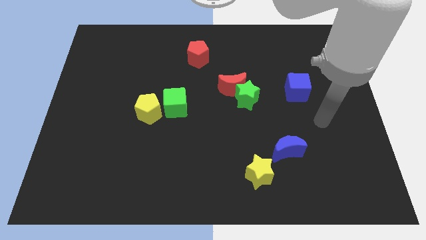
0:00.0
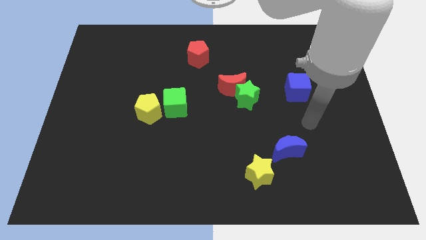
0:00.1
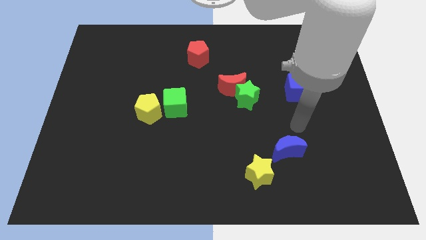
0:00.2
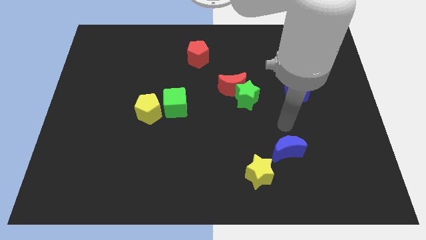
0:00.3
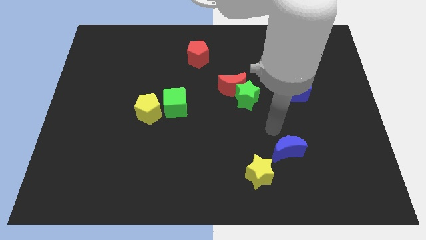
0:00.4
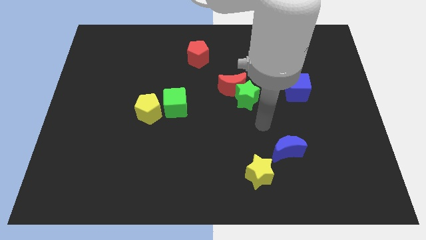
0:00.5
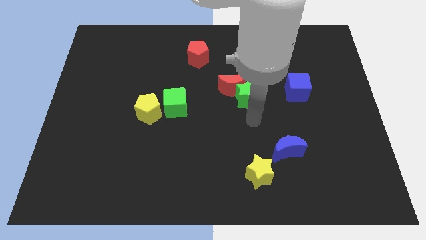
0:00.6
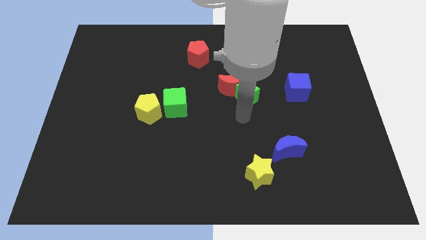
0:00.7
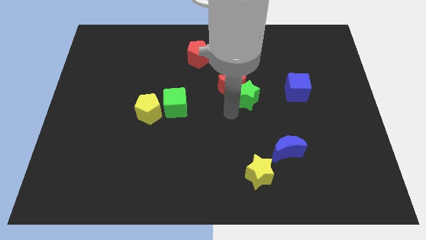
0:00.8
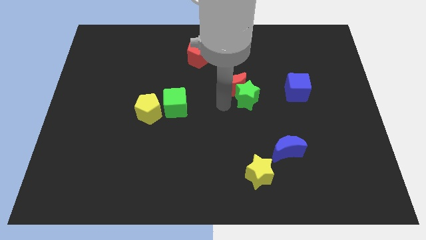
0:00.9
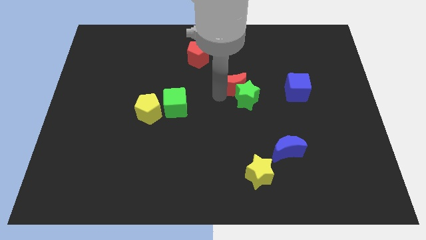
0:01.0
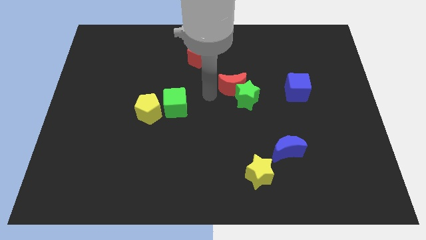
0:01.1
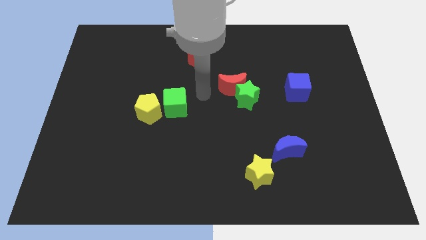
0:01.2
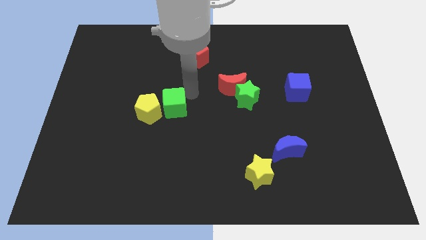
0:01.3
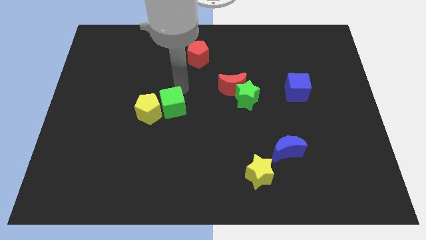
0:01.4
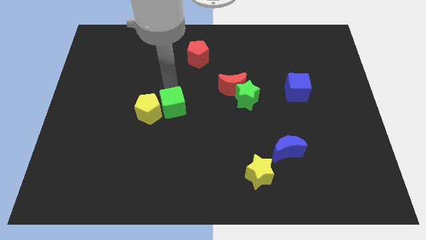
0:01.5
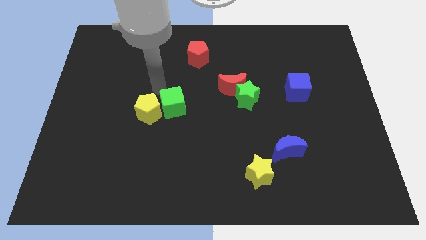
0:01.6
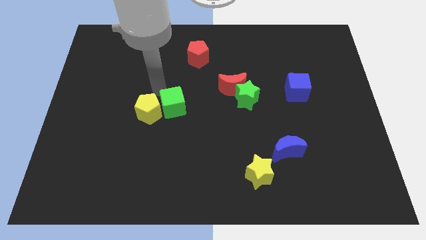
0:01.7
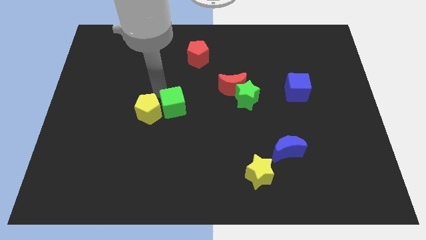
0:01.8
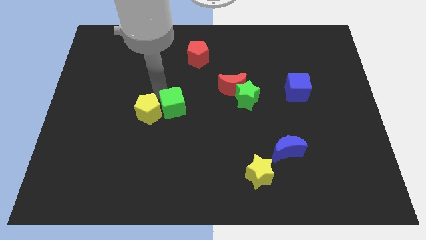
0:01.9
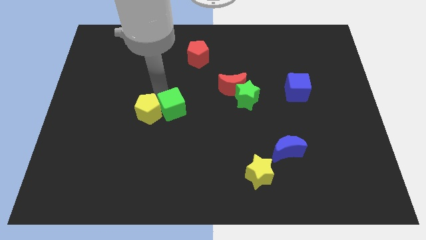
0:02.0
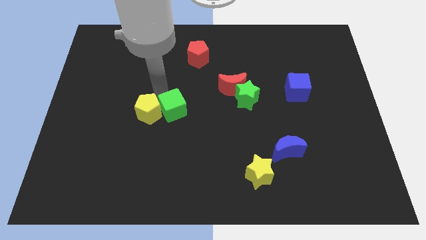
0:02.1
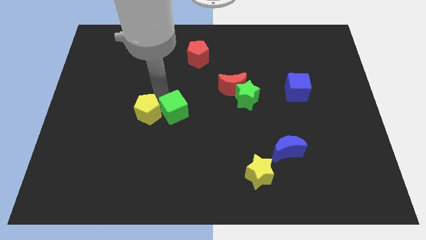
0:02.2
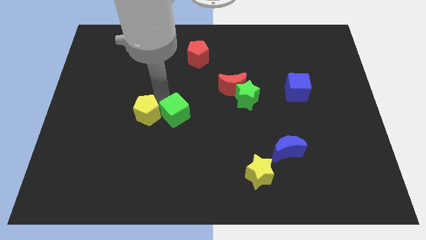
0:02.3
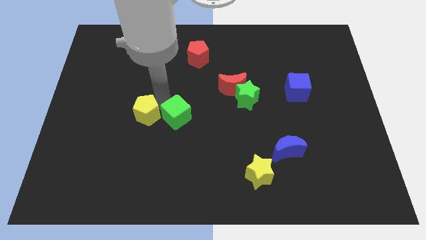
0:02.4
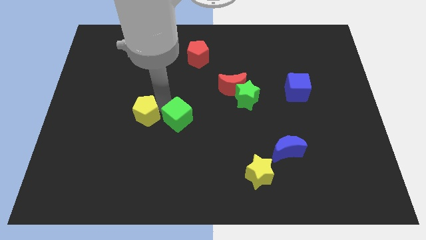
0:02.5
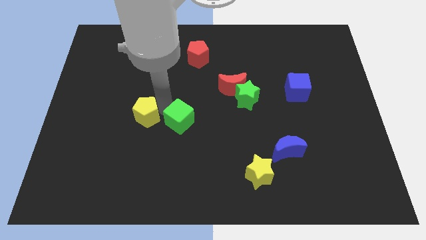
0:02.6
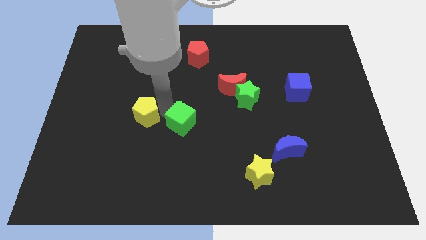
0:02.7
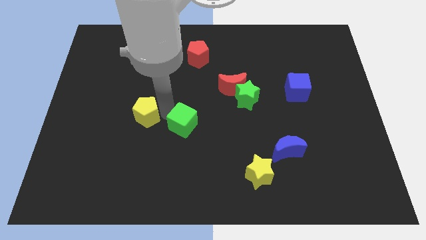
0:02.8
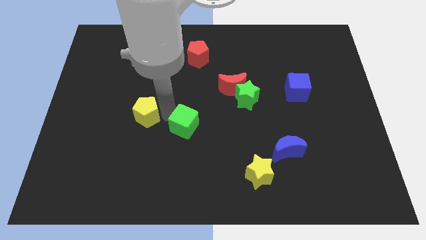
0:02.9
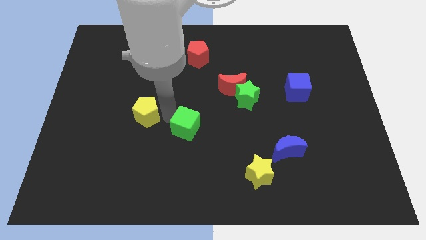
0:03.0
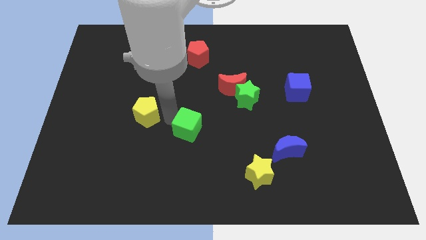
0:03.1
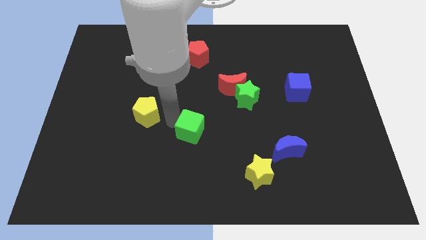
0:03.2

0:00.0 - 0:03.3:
push the green cube diagonally downwards and right a bit

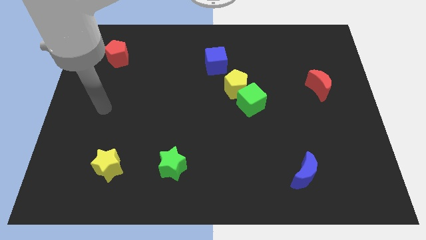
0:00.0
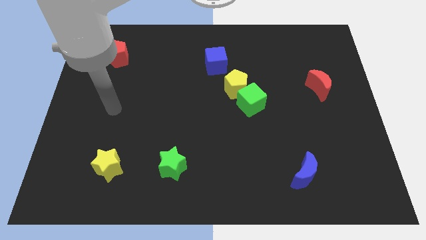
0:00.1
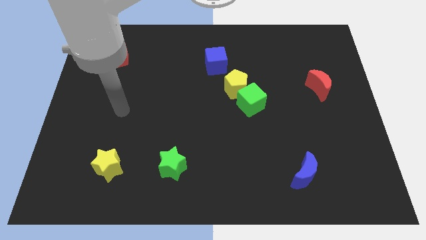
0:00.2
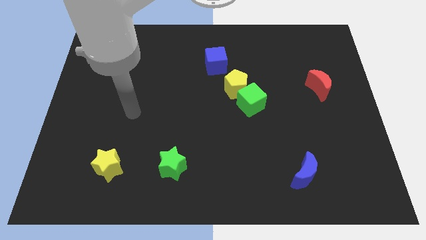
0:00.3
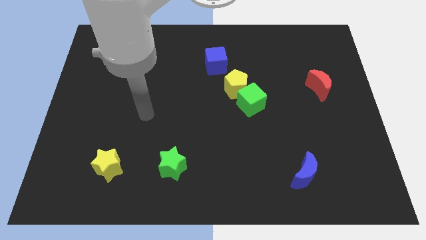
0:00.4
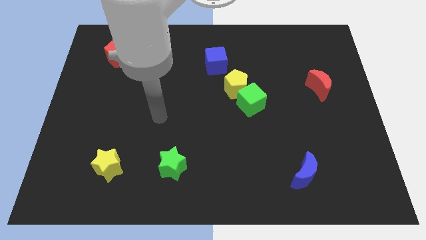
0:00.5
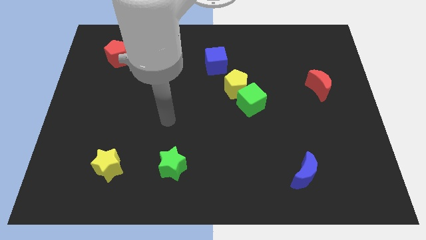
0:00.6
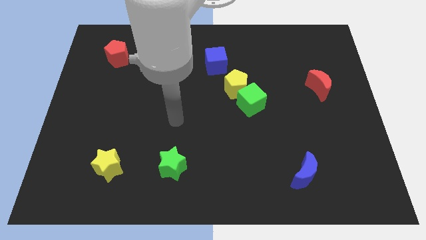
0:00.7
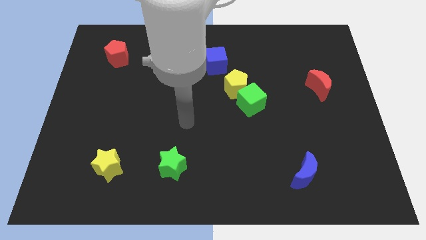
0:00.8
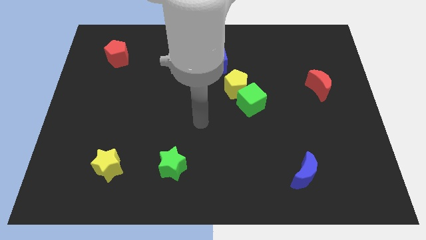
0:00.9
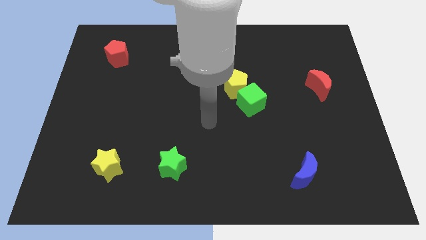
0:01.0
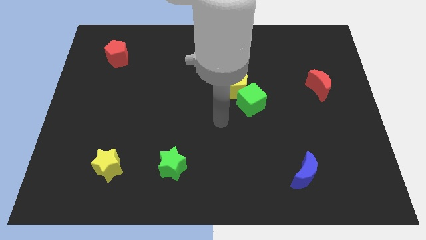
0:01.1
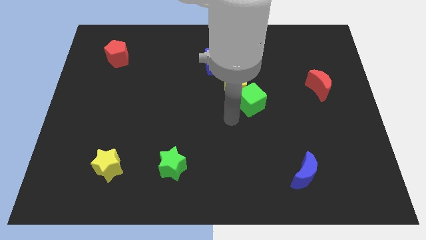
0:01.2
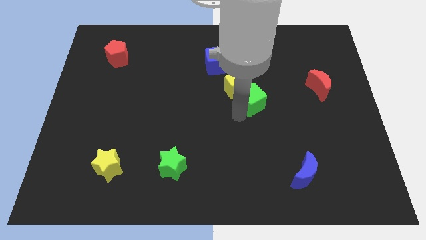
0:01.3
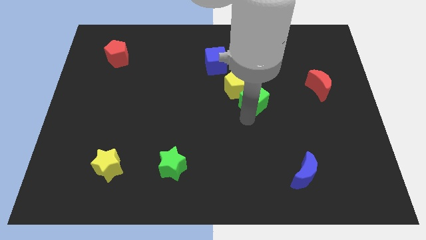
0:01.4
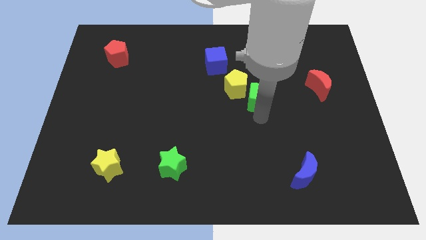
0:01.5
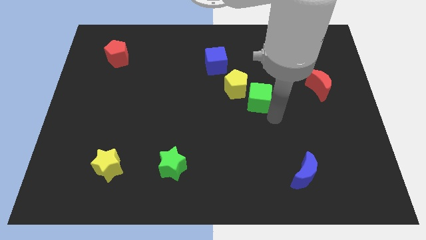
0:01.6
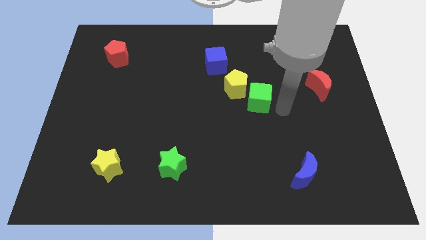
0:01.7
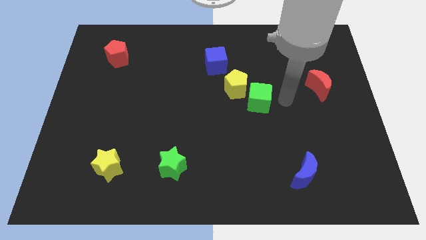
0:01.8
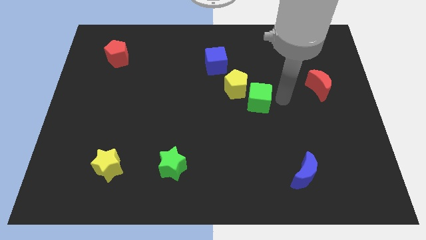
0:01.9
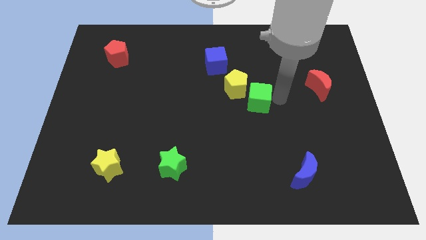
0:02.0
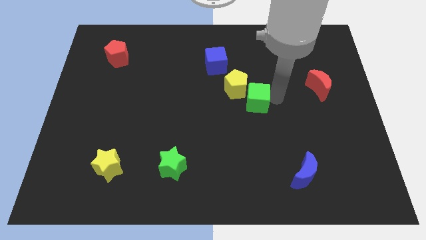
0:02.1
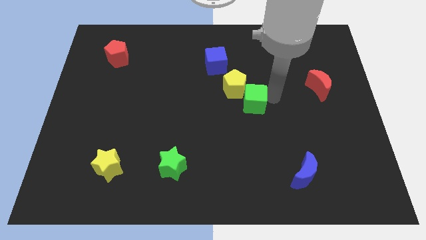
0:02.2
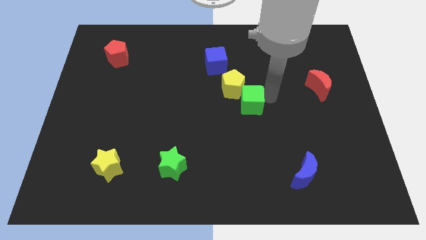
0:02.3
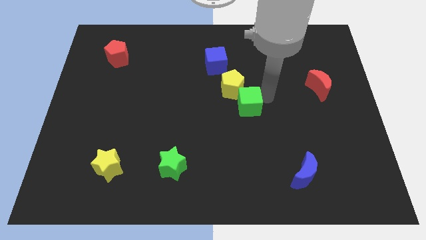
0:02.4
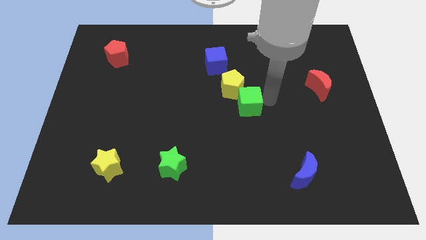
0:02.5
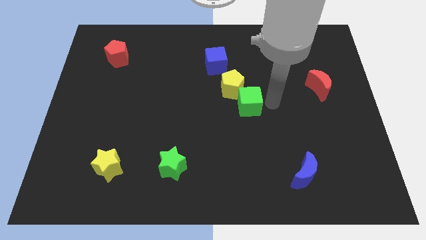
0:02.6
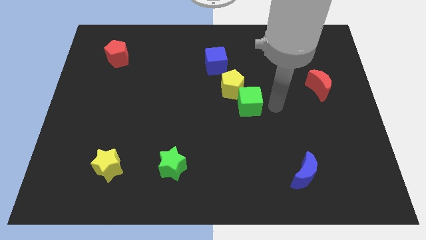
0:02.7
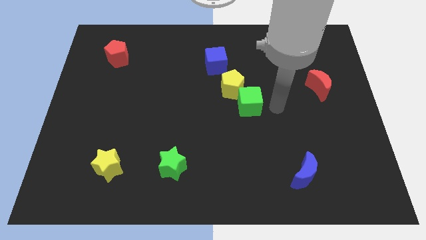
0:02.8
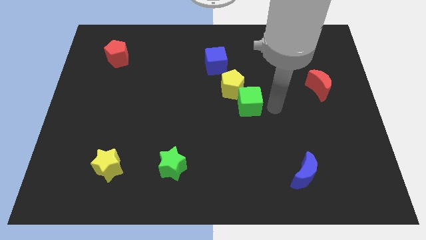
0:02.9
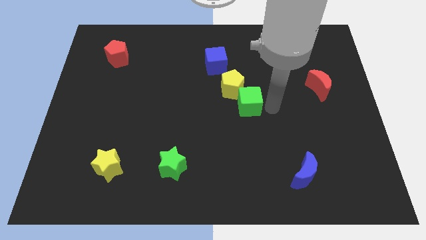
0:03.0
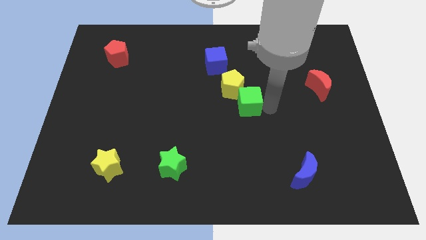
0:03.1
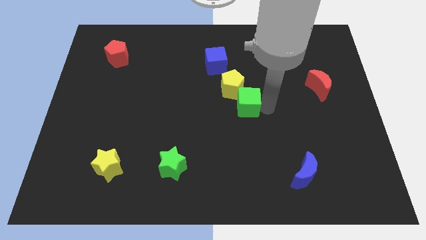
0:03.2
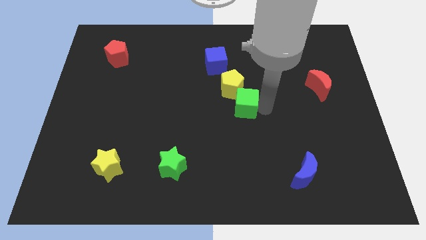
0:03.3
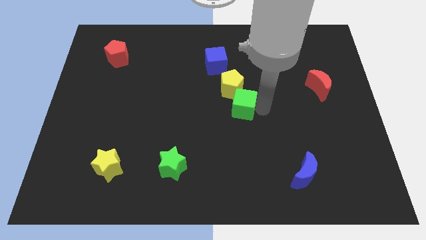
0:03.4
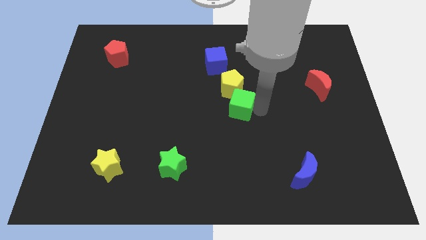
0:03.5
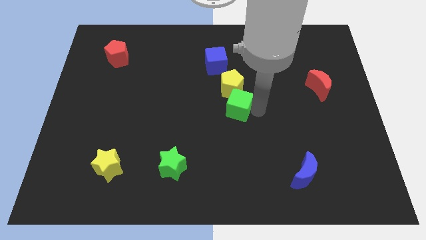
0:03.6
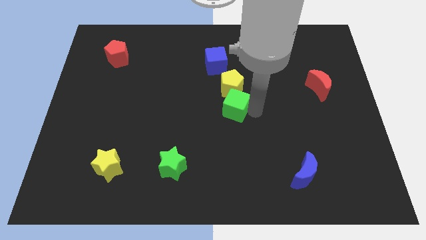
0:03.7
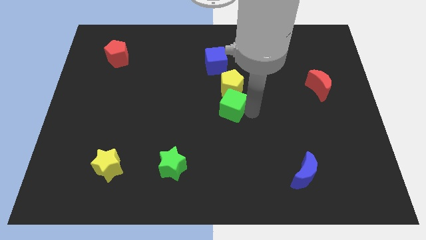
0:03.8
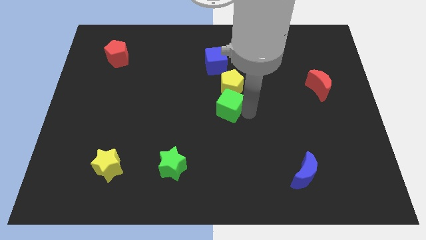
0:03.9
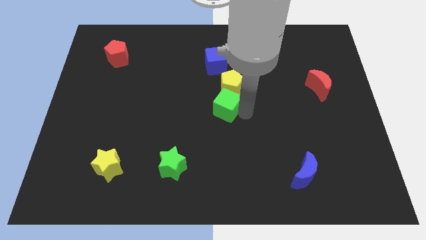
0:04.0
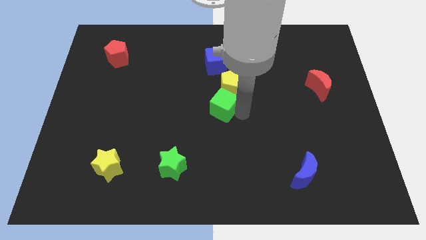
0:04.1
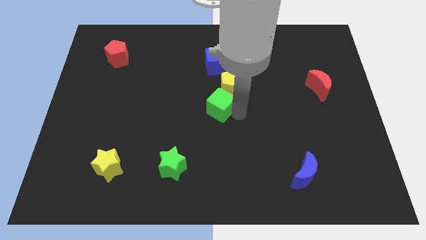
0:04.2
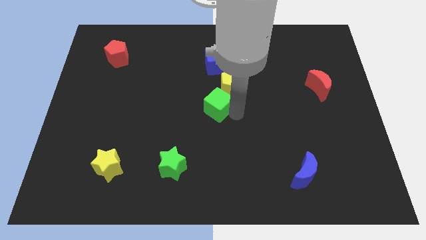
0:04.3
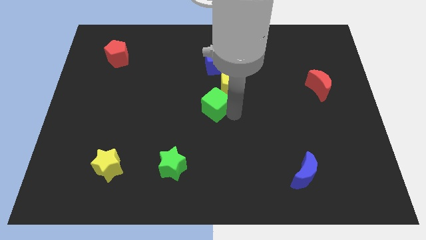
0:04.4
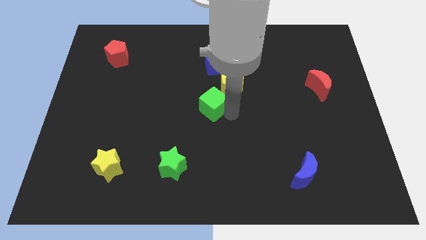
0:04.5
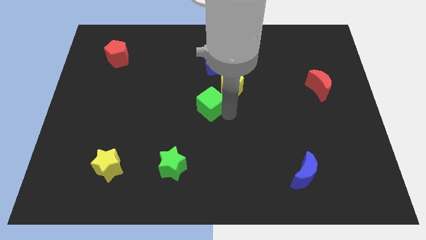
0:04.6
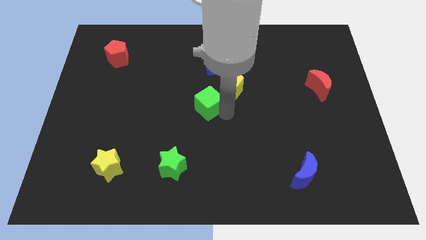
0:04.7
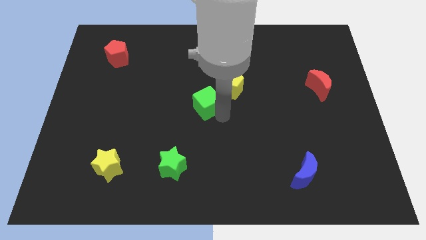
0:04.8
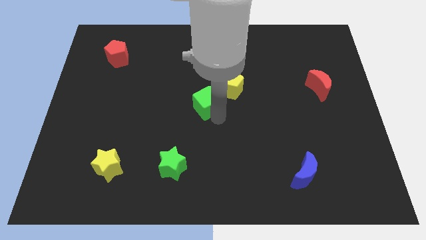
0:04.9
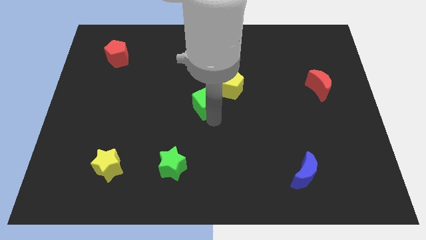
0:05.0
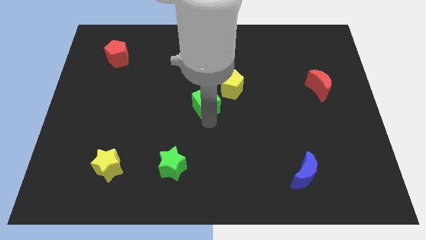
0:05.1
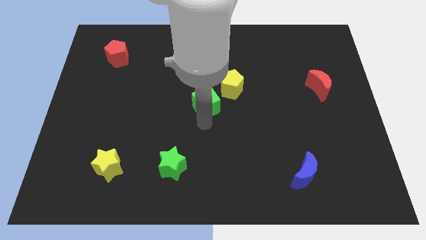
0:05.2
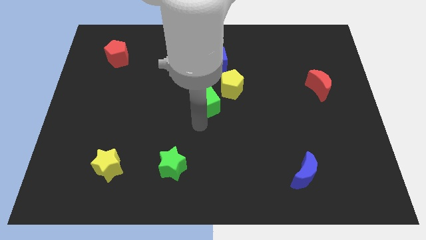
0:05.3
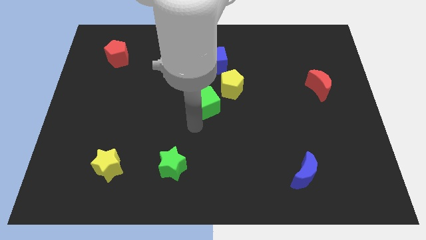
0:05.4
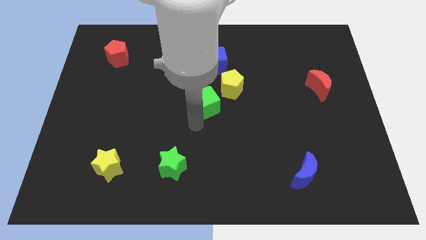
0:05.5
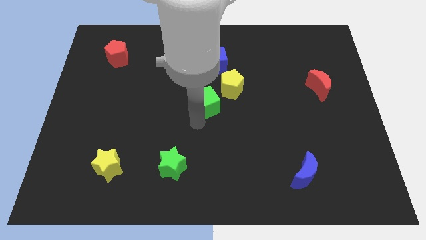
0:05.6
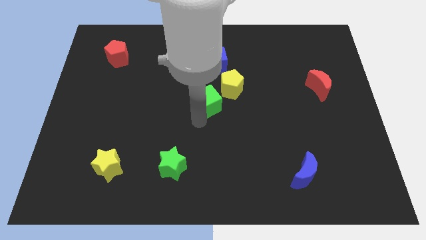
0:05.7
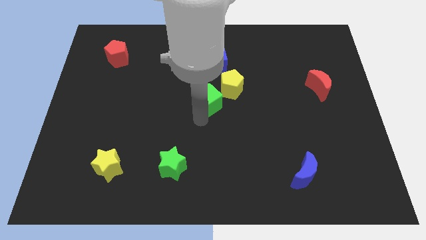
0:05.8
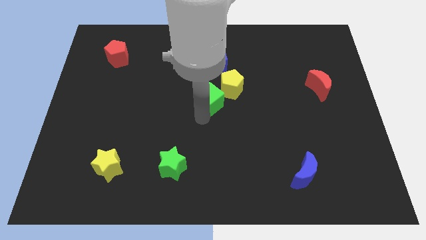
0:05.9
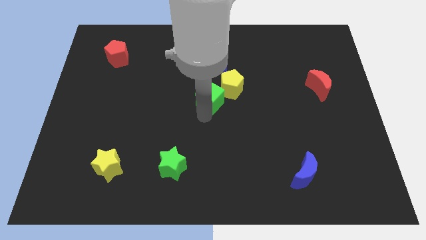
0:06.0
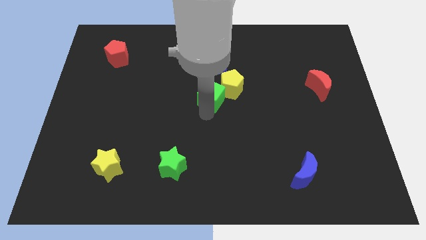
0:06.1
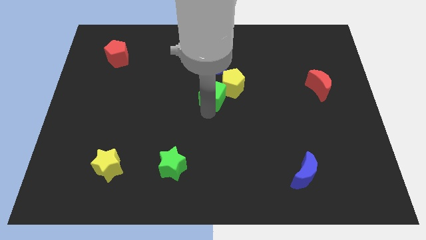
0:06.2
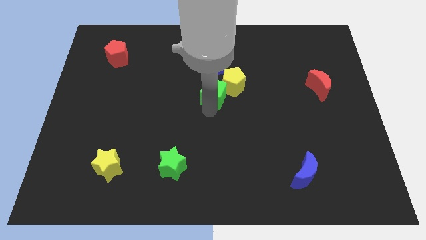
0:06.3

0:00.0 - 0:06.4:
move the green cube somewhat diagonally upwards and left
